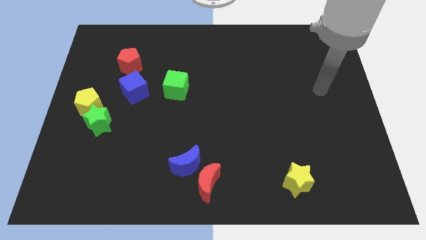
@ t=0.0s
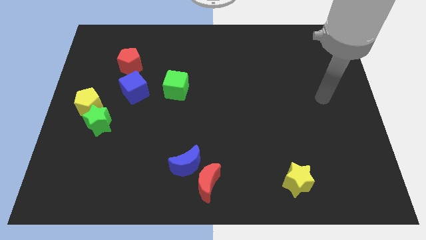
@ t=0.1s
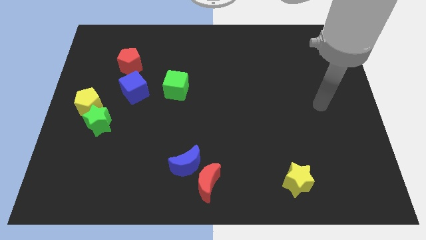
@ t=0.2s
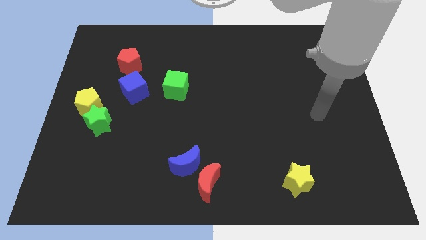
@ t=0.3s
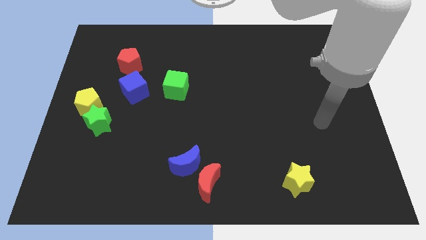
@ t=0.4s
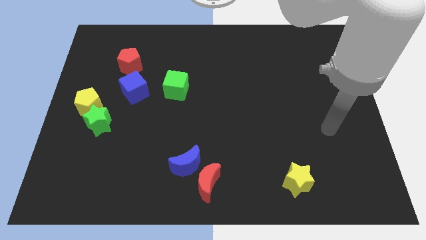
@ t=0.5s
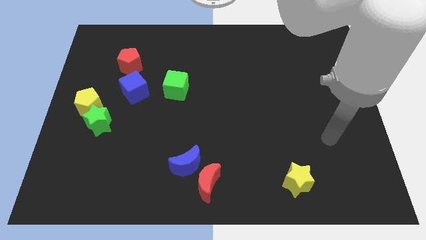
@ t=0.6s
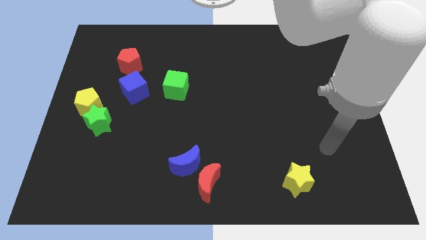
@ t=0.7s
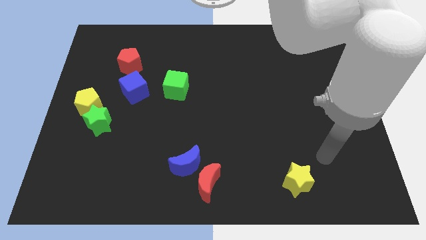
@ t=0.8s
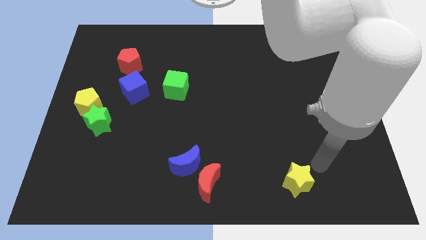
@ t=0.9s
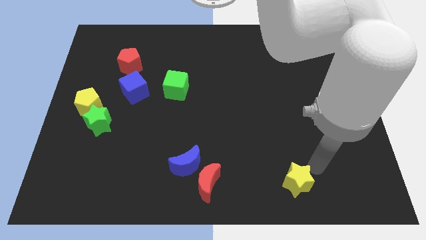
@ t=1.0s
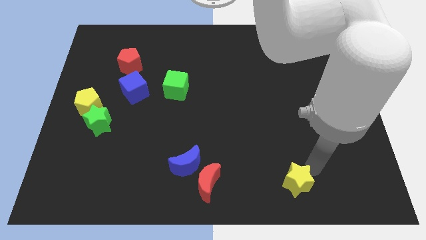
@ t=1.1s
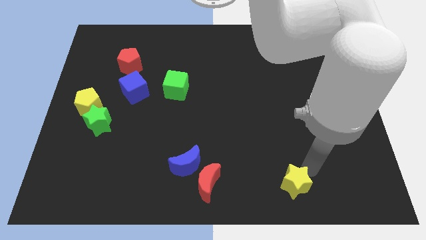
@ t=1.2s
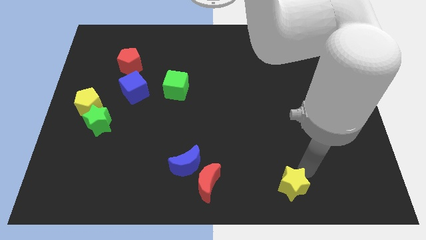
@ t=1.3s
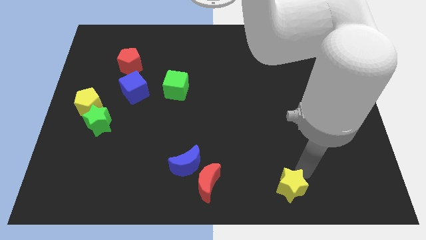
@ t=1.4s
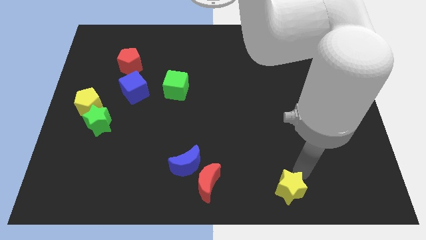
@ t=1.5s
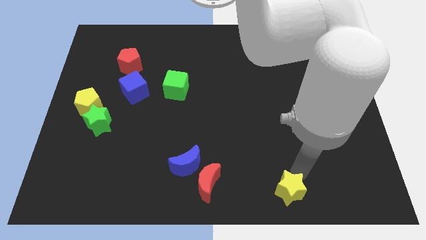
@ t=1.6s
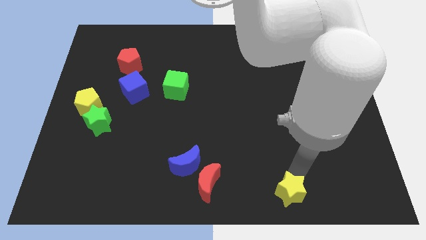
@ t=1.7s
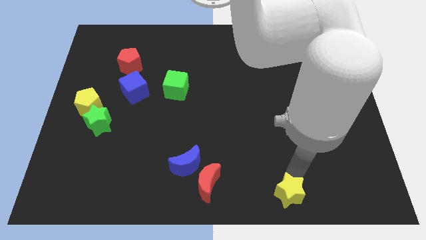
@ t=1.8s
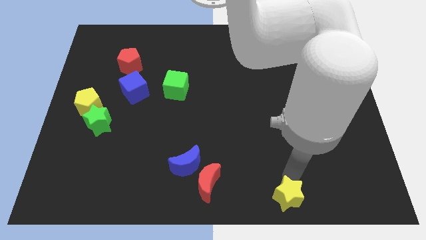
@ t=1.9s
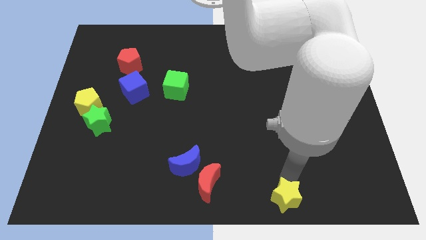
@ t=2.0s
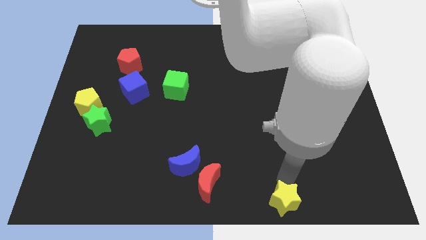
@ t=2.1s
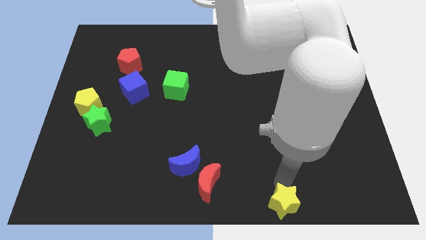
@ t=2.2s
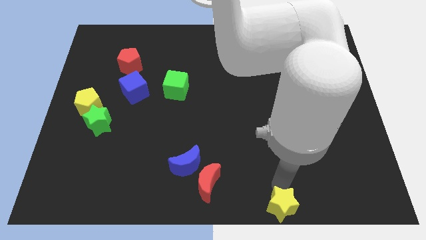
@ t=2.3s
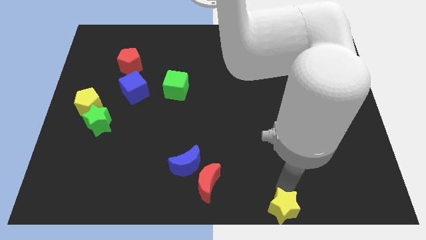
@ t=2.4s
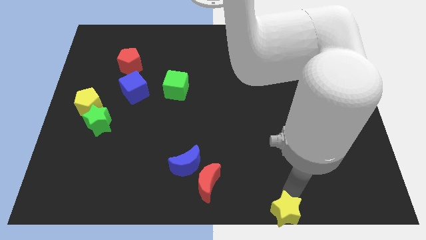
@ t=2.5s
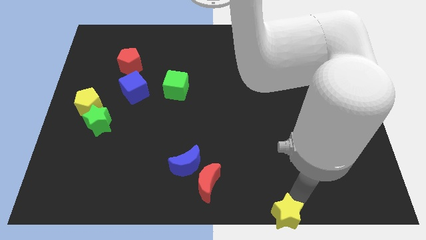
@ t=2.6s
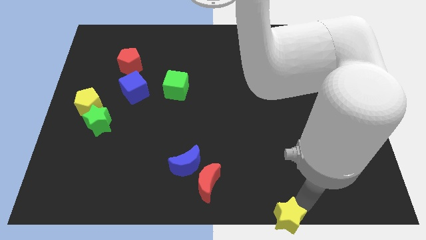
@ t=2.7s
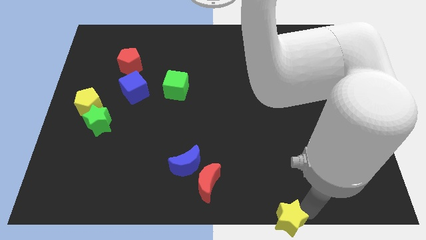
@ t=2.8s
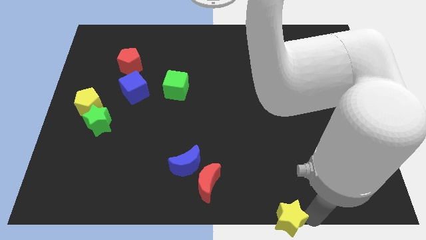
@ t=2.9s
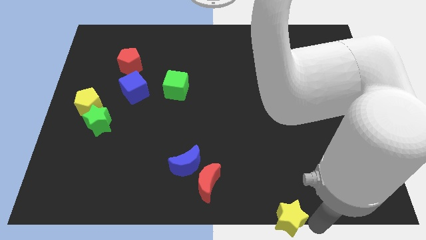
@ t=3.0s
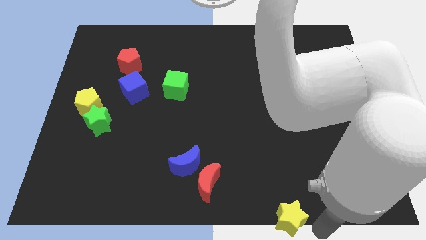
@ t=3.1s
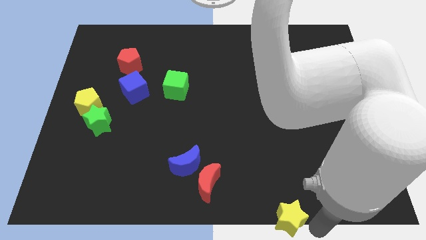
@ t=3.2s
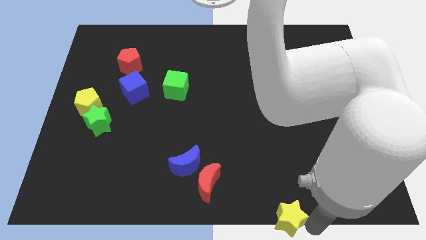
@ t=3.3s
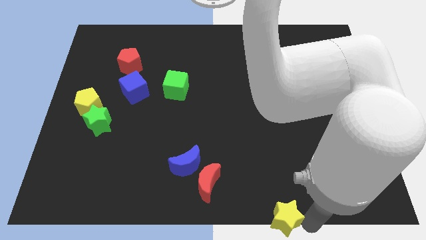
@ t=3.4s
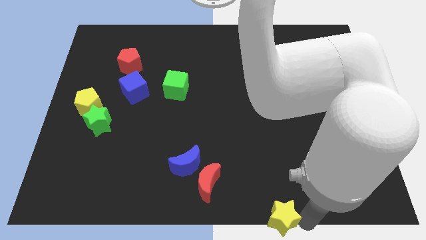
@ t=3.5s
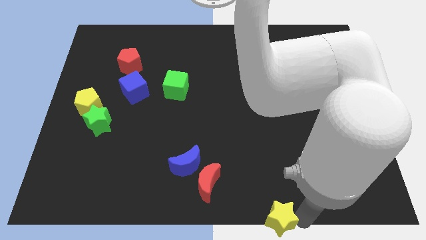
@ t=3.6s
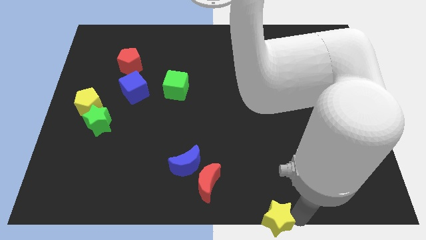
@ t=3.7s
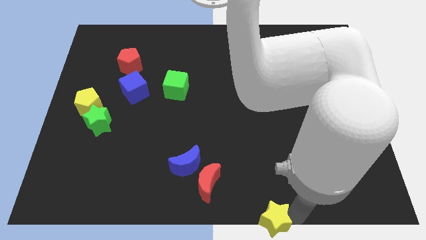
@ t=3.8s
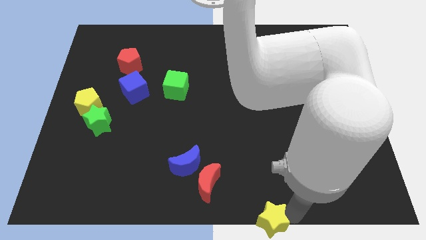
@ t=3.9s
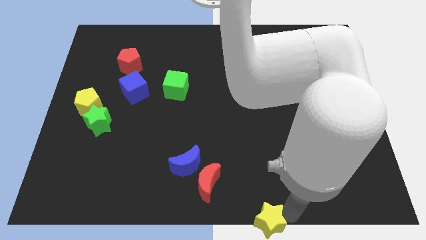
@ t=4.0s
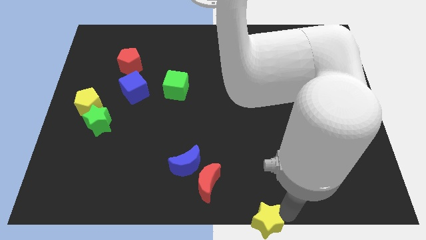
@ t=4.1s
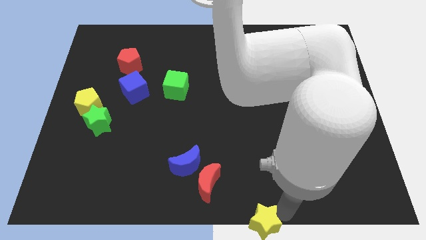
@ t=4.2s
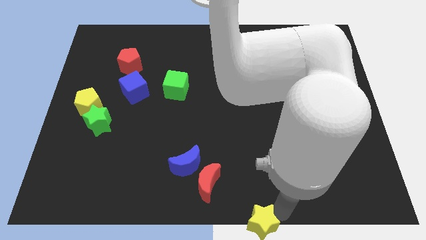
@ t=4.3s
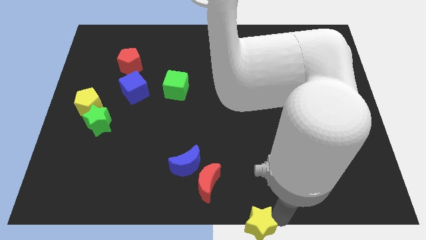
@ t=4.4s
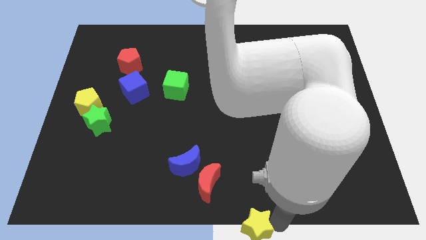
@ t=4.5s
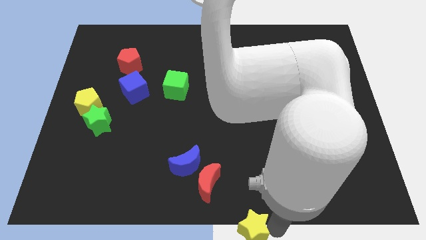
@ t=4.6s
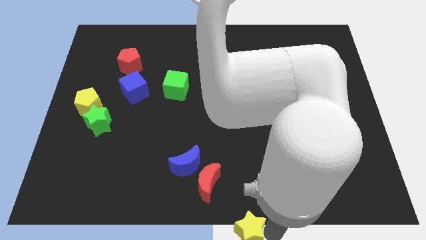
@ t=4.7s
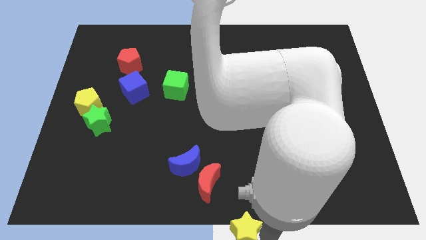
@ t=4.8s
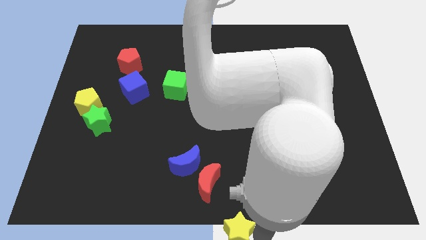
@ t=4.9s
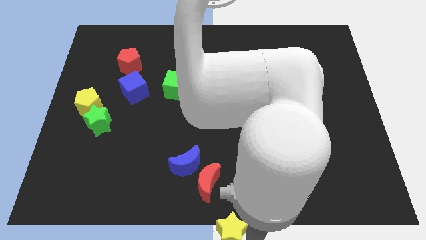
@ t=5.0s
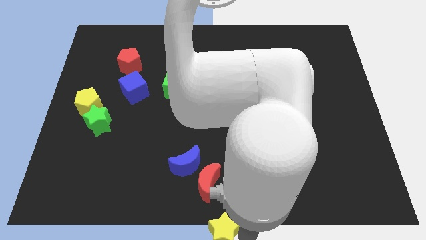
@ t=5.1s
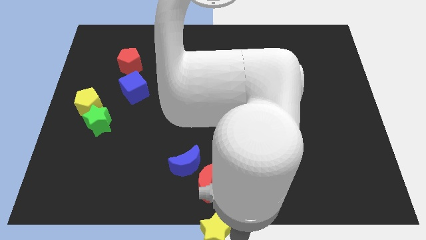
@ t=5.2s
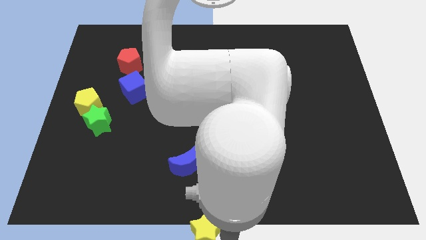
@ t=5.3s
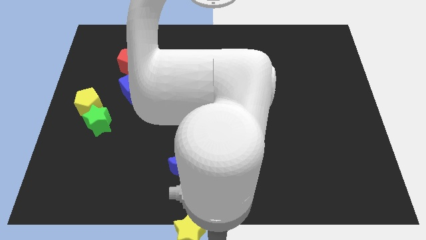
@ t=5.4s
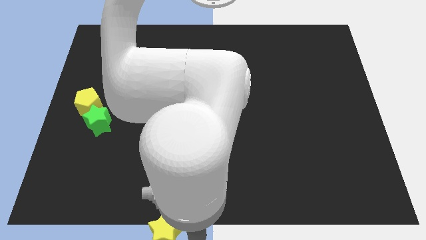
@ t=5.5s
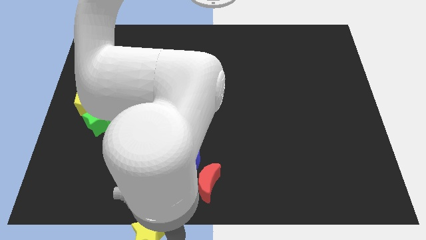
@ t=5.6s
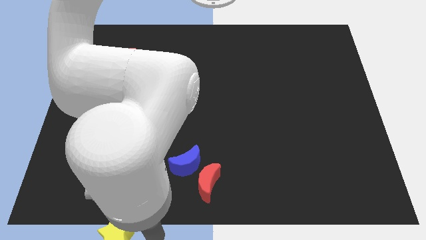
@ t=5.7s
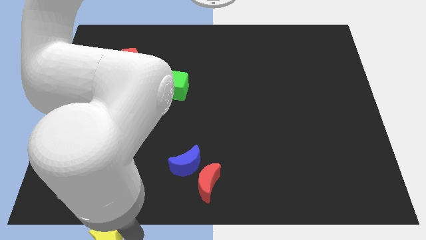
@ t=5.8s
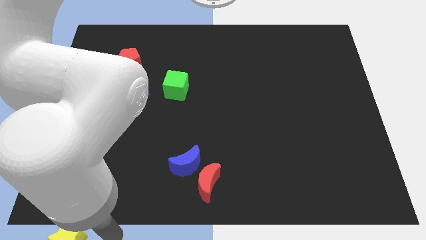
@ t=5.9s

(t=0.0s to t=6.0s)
move the yellow star to the bottom left of the board
